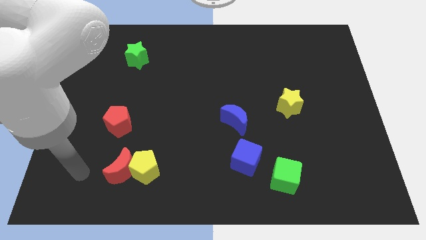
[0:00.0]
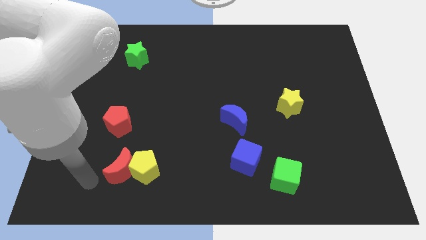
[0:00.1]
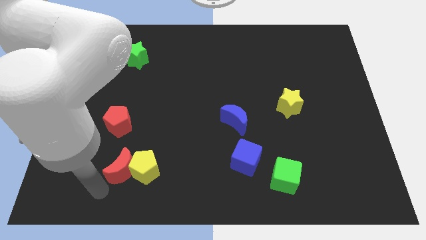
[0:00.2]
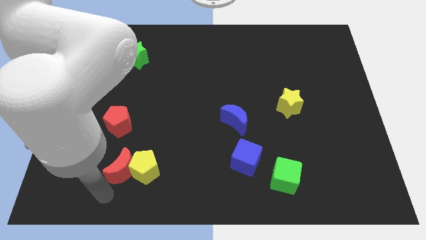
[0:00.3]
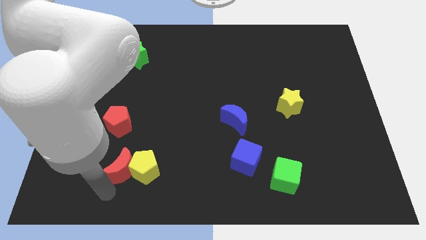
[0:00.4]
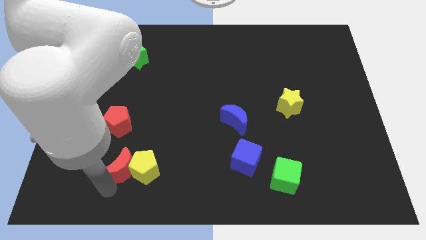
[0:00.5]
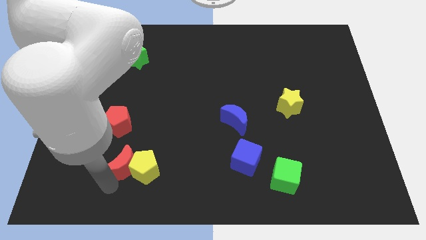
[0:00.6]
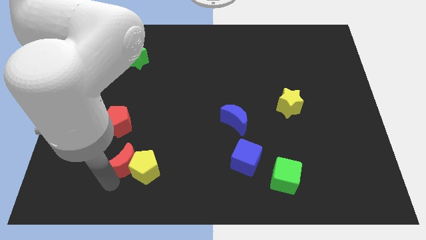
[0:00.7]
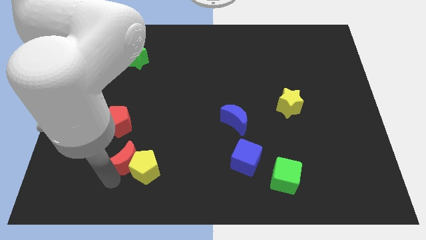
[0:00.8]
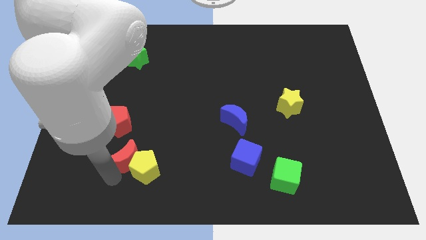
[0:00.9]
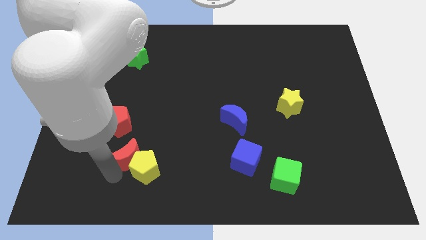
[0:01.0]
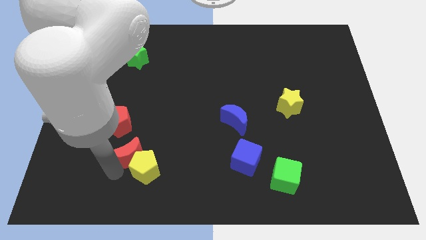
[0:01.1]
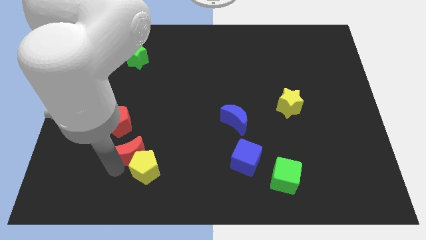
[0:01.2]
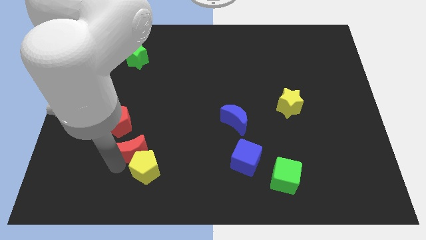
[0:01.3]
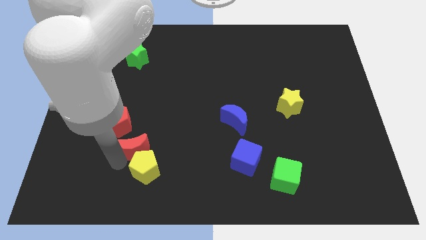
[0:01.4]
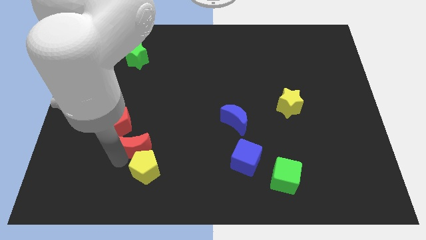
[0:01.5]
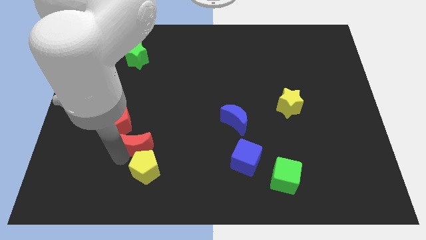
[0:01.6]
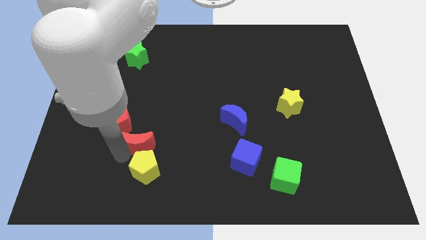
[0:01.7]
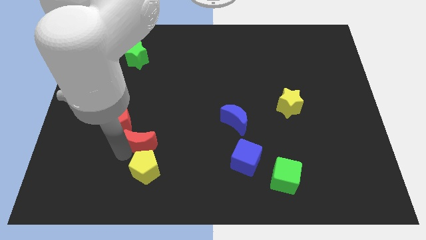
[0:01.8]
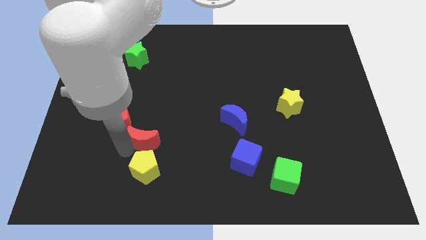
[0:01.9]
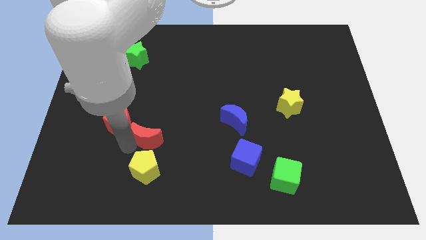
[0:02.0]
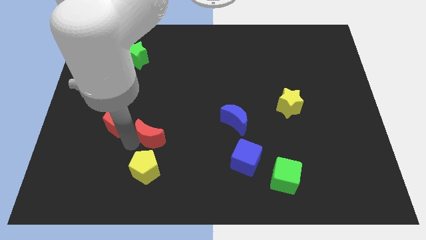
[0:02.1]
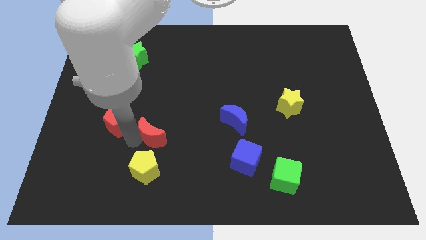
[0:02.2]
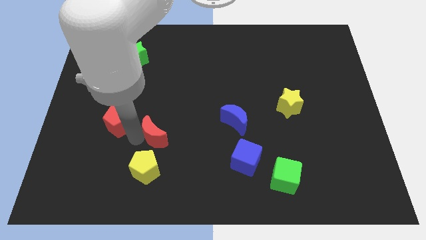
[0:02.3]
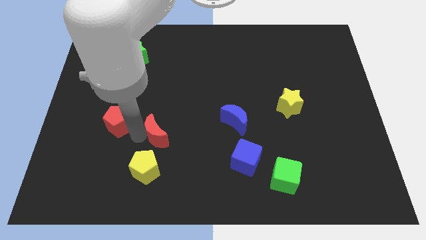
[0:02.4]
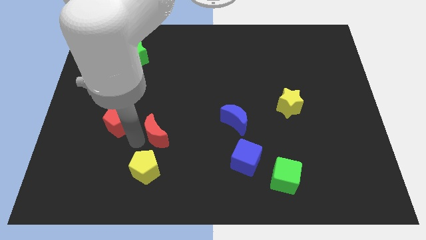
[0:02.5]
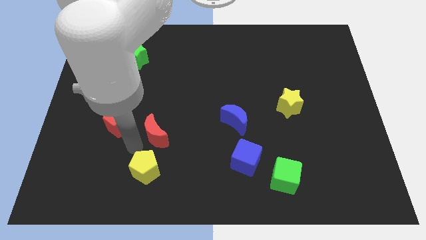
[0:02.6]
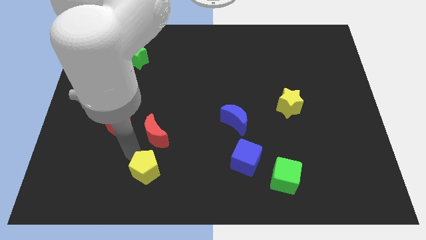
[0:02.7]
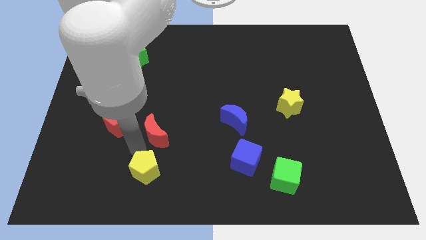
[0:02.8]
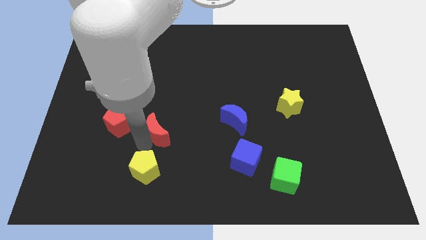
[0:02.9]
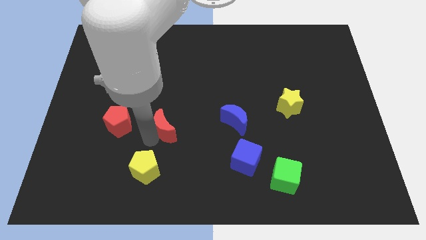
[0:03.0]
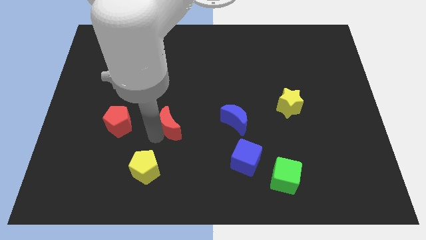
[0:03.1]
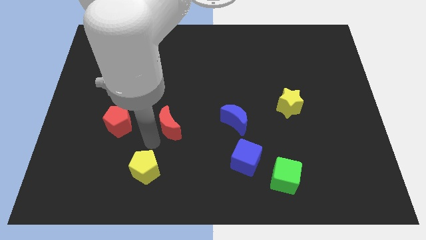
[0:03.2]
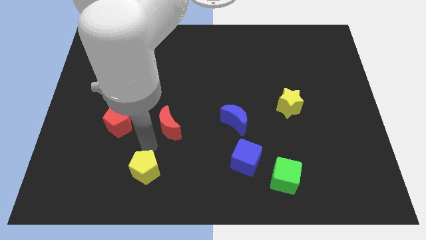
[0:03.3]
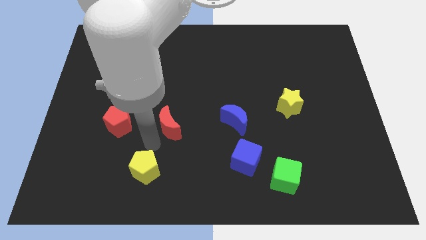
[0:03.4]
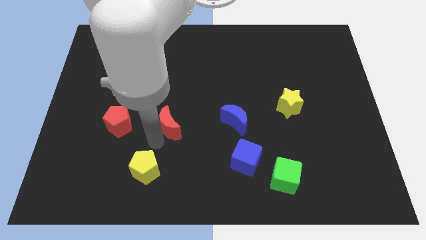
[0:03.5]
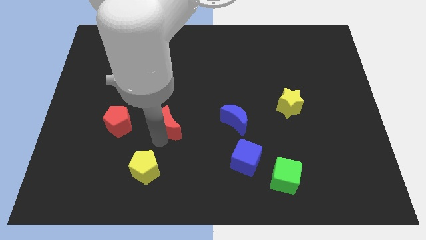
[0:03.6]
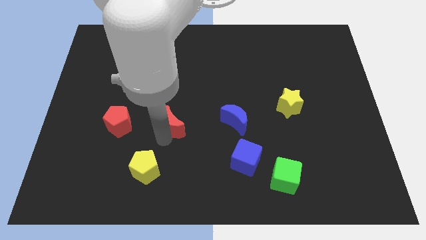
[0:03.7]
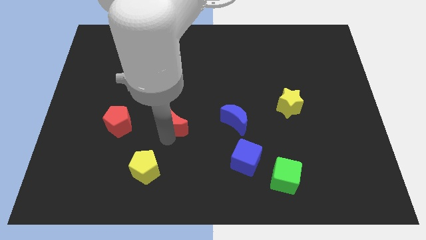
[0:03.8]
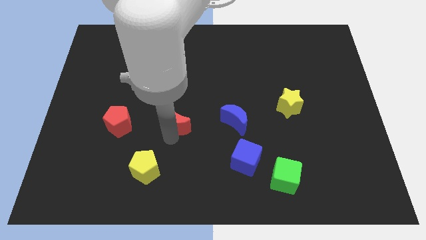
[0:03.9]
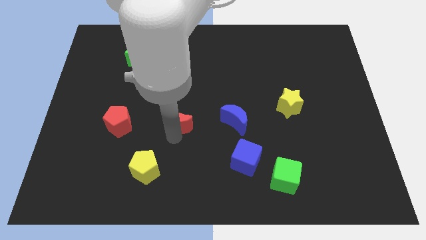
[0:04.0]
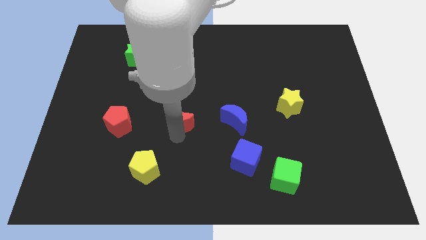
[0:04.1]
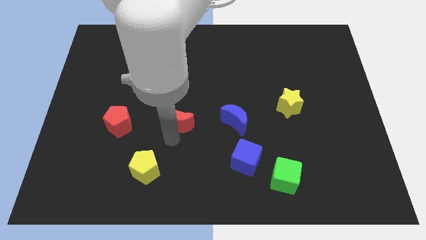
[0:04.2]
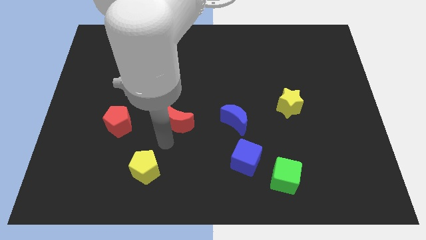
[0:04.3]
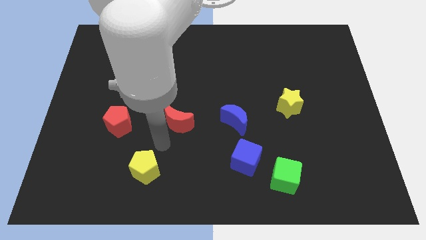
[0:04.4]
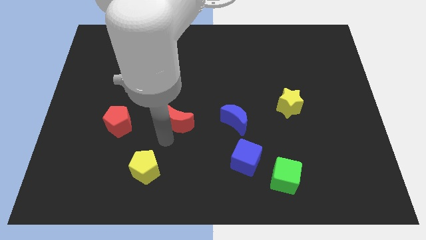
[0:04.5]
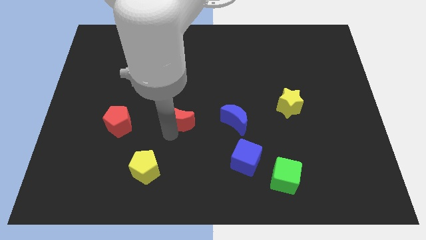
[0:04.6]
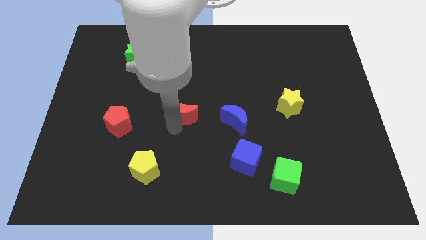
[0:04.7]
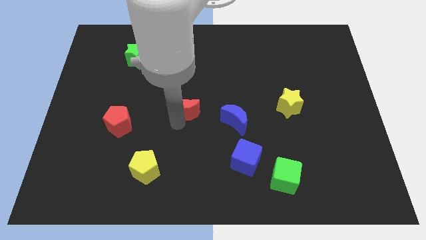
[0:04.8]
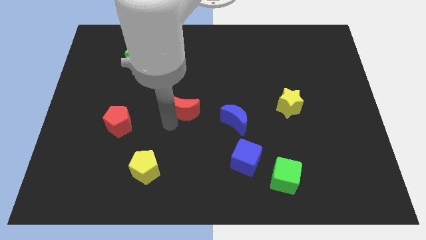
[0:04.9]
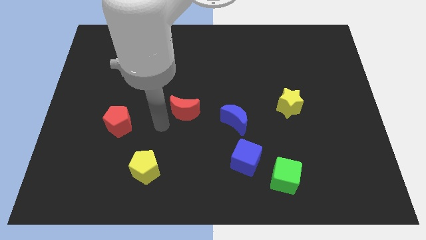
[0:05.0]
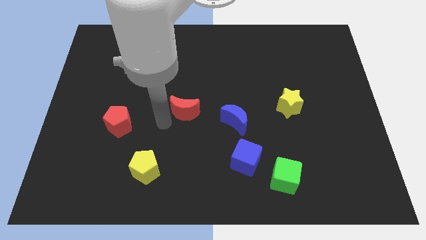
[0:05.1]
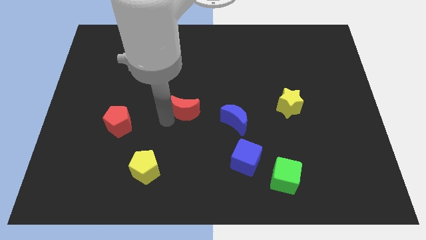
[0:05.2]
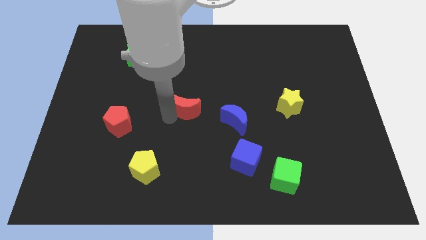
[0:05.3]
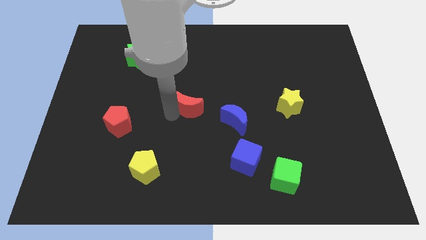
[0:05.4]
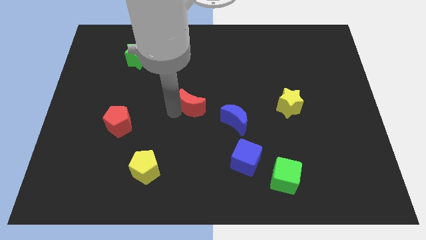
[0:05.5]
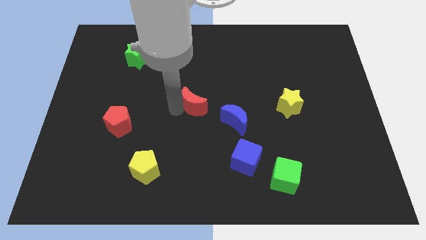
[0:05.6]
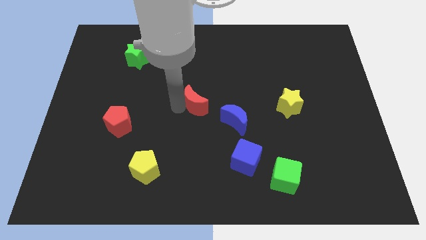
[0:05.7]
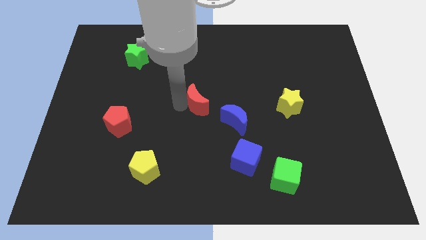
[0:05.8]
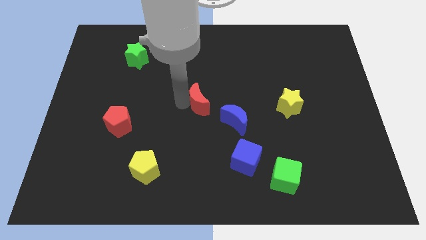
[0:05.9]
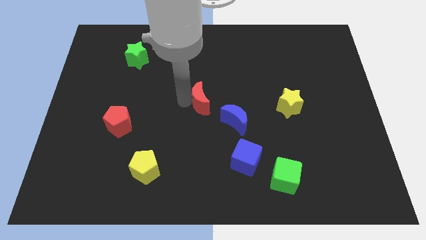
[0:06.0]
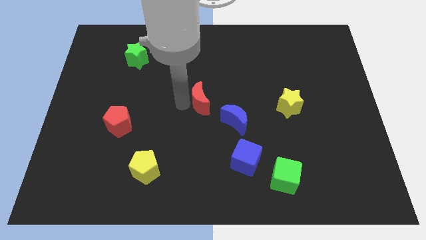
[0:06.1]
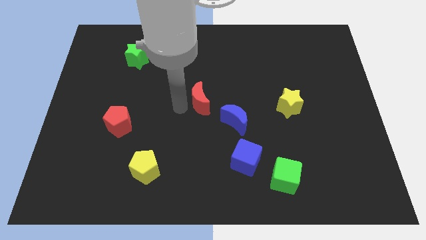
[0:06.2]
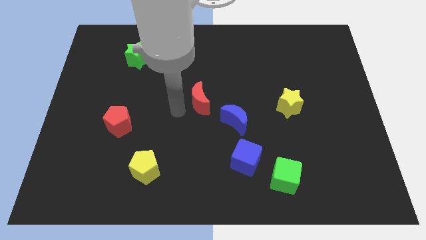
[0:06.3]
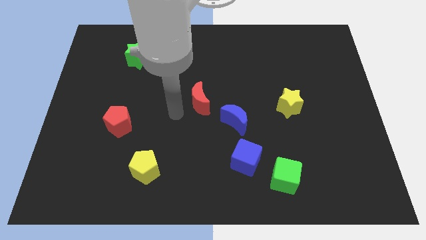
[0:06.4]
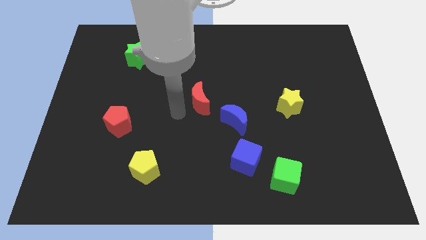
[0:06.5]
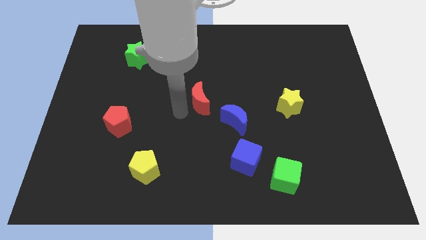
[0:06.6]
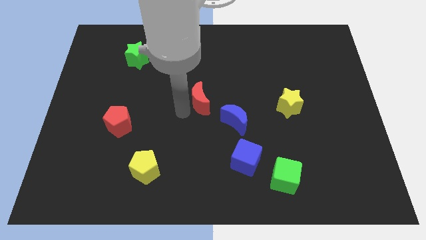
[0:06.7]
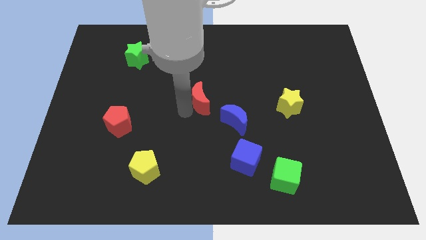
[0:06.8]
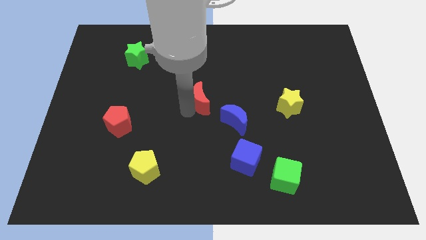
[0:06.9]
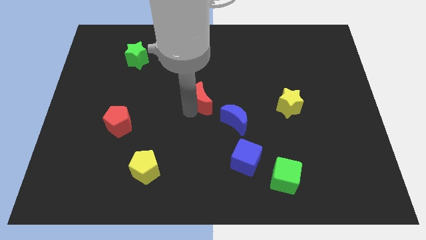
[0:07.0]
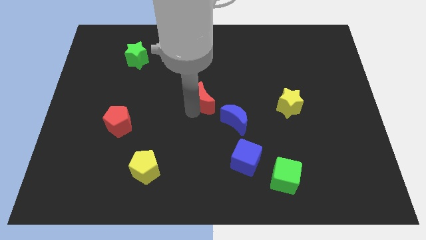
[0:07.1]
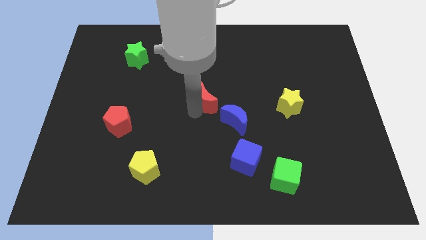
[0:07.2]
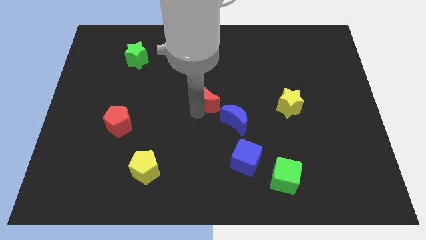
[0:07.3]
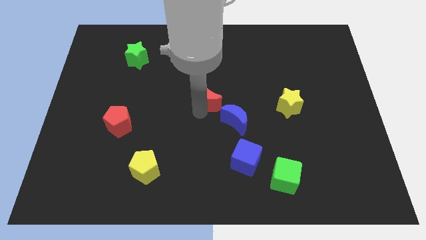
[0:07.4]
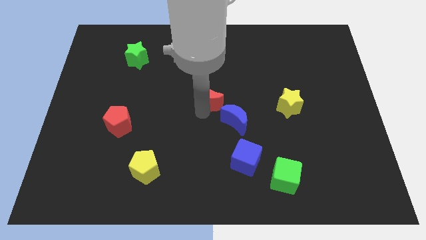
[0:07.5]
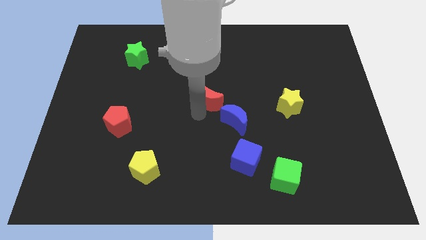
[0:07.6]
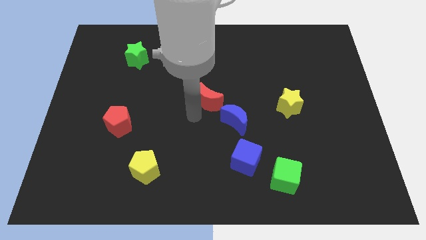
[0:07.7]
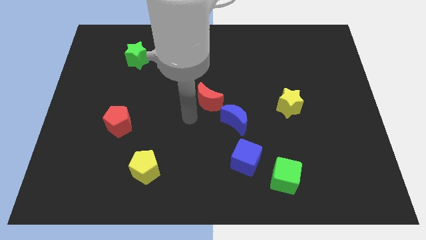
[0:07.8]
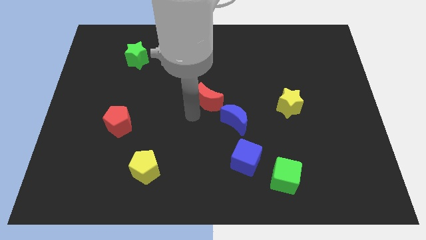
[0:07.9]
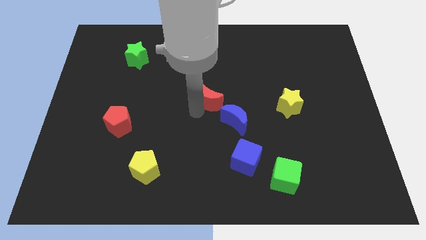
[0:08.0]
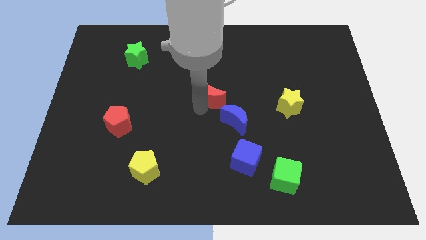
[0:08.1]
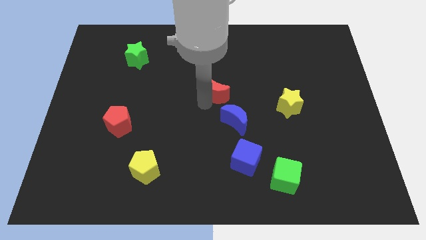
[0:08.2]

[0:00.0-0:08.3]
slide the red moon above the blue moon
